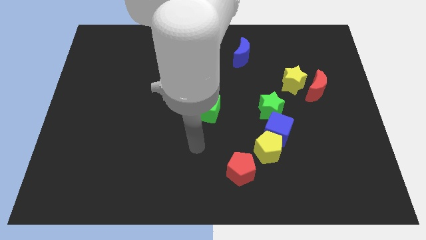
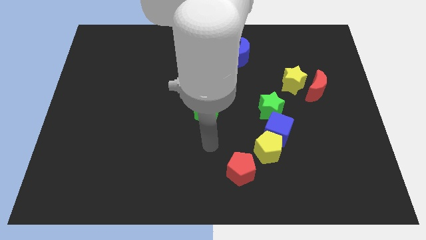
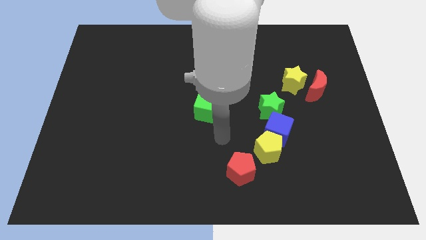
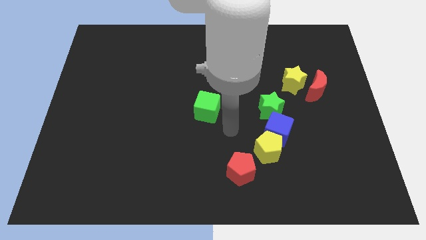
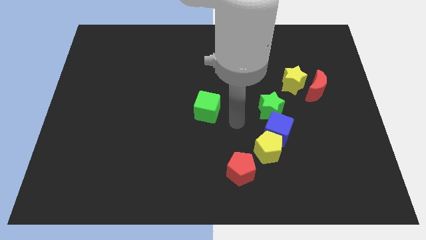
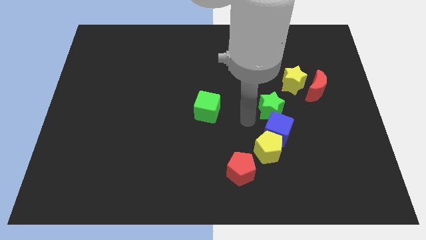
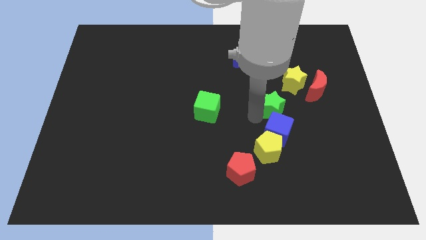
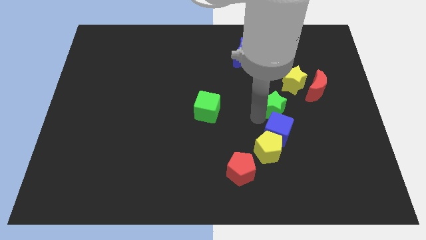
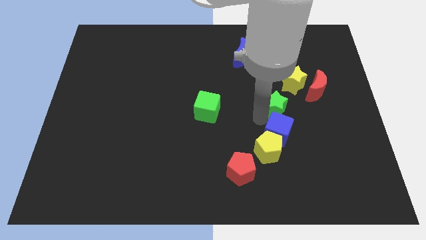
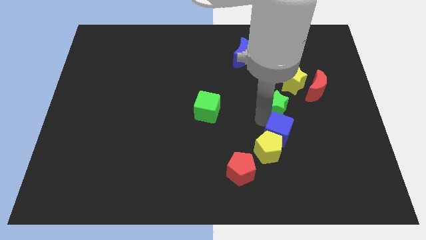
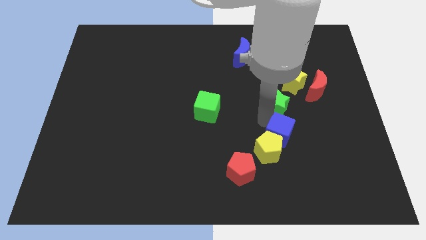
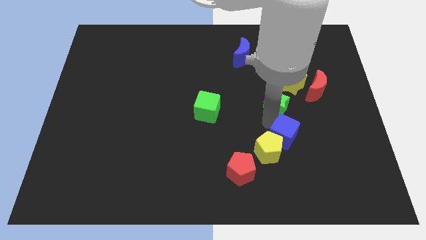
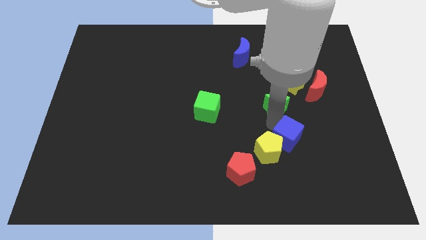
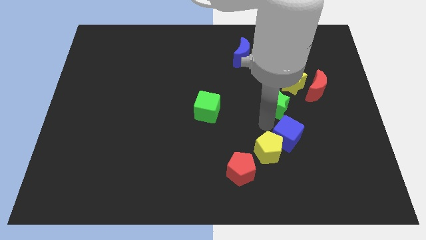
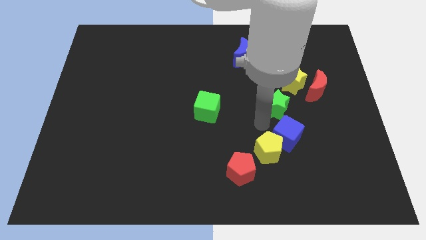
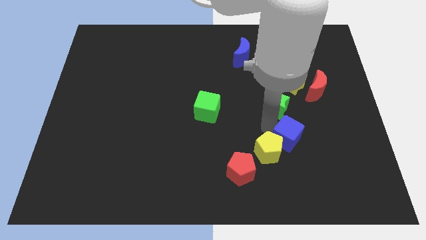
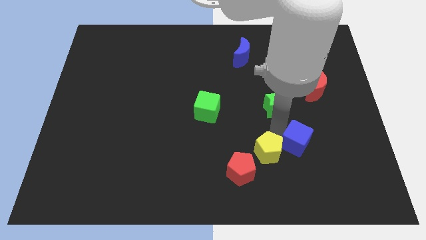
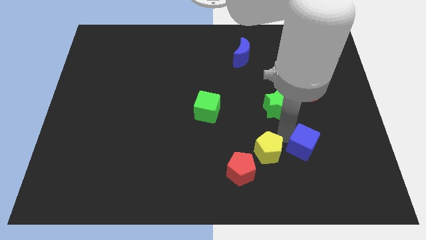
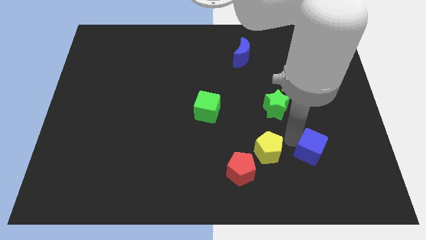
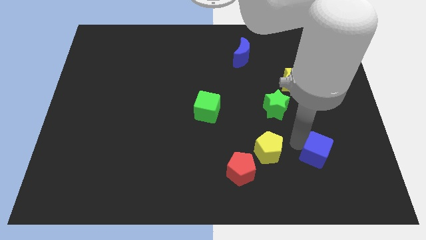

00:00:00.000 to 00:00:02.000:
move the blue cube away from the yellow pentagon and green star

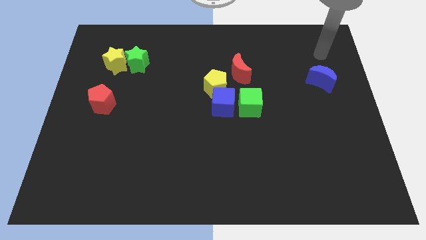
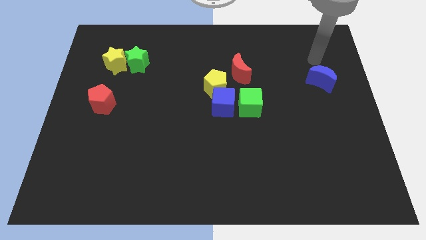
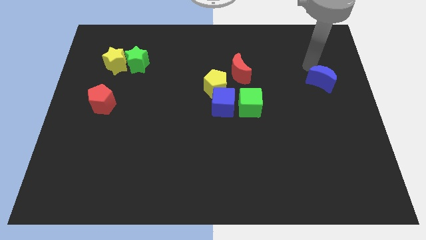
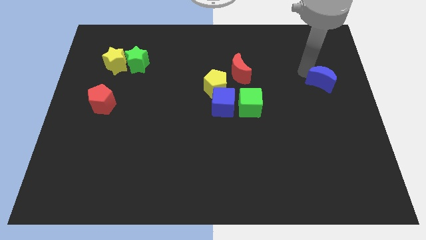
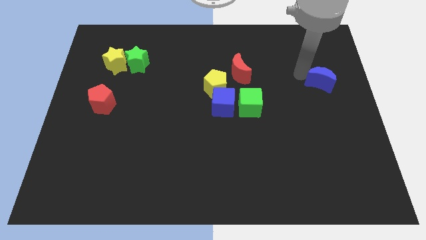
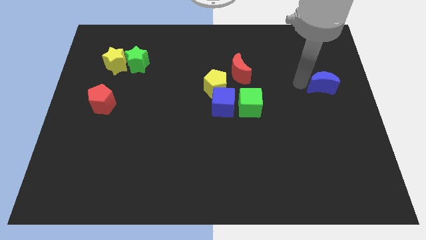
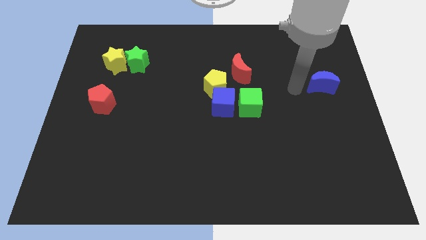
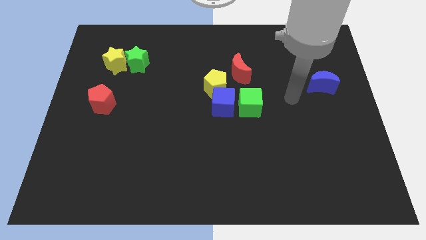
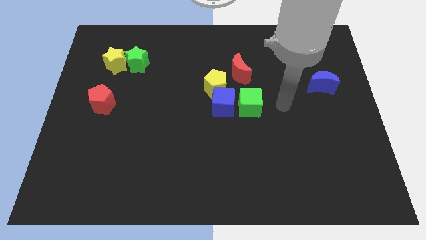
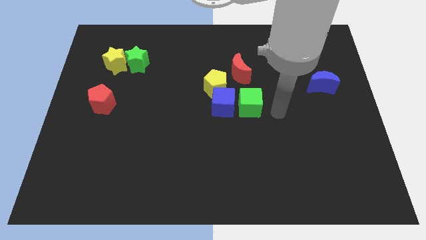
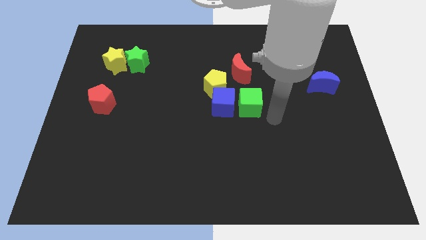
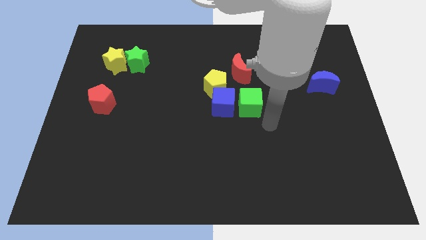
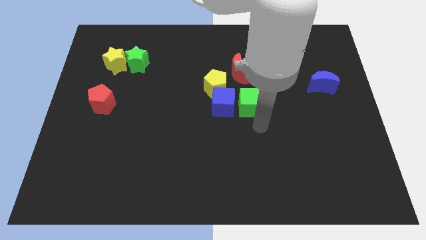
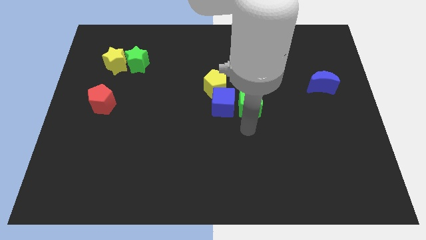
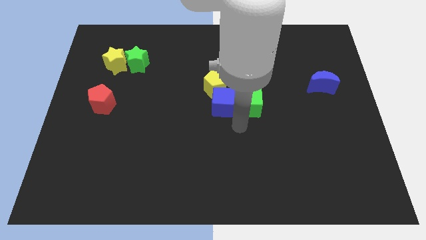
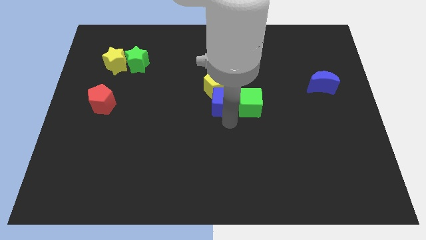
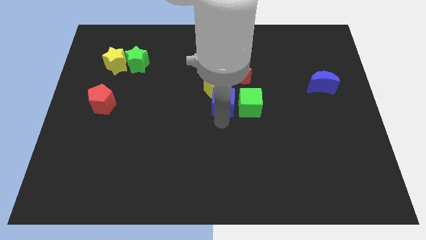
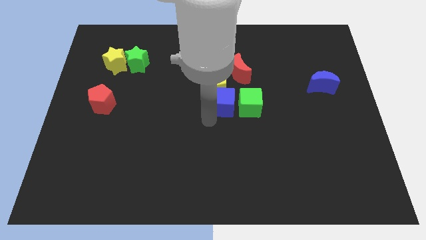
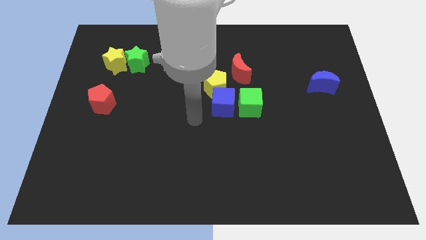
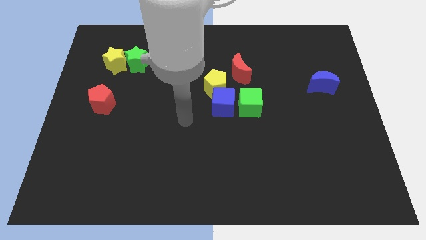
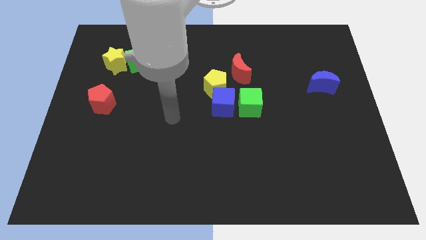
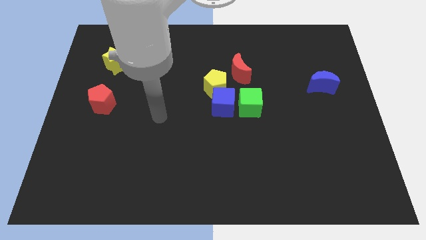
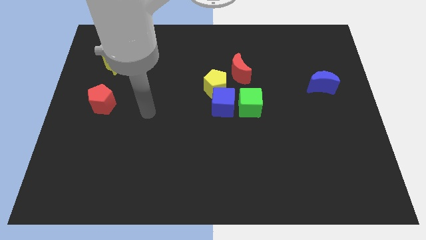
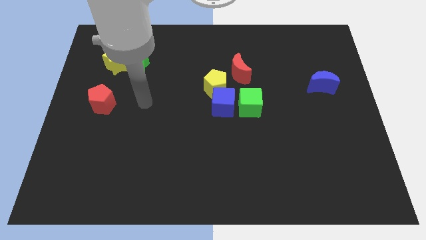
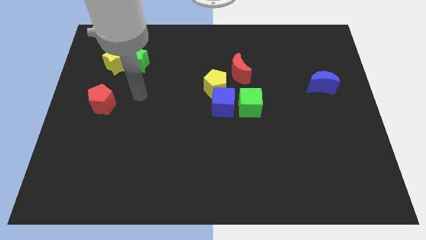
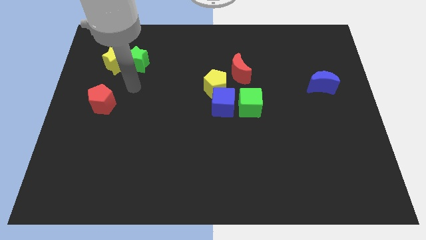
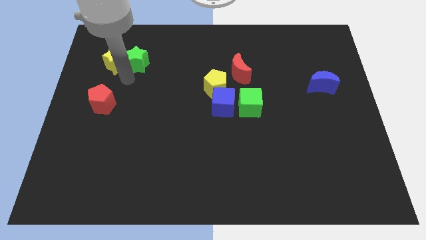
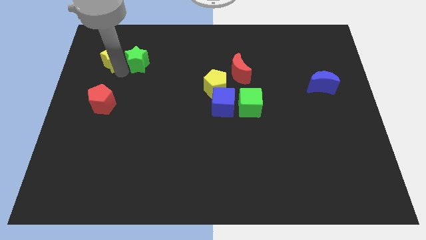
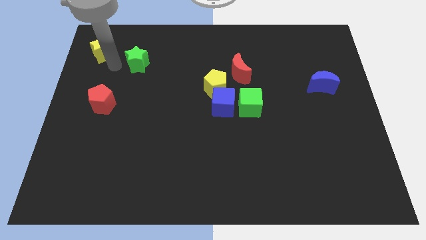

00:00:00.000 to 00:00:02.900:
move the green star away from the yellow star

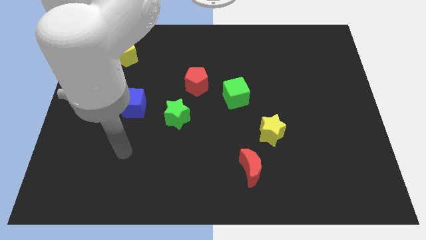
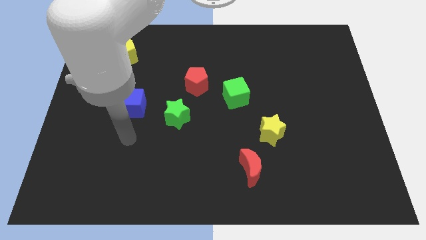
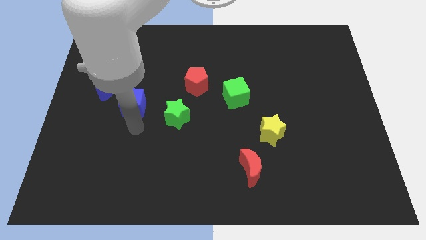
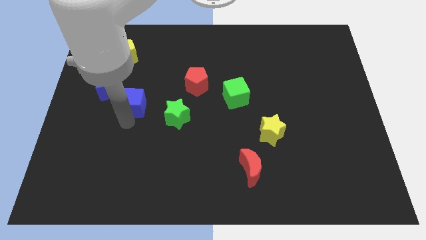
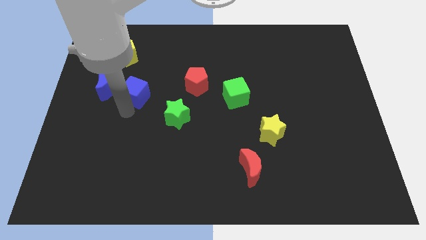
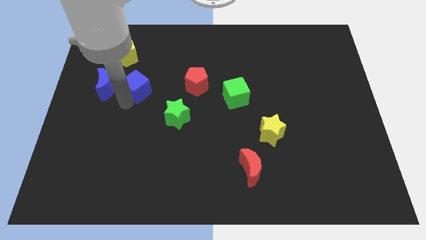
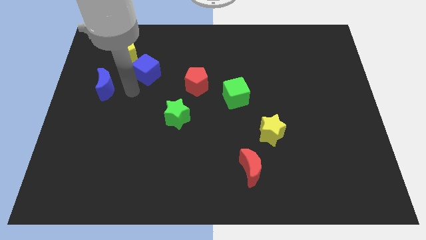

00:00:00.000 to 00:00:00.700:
pull the blue moon apart from the blue cube

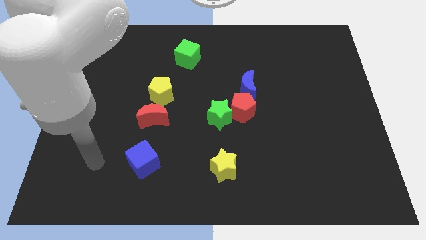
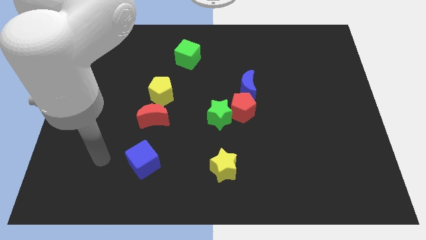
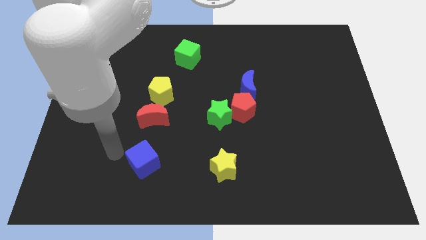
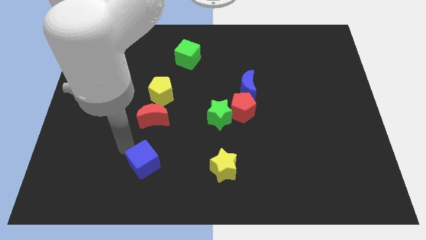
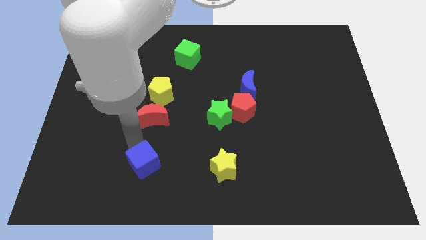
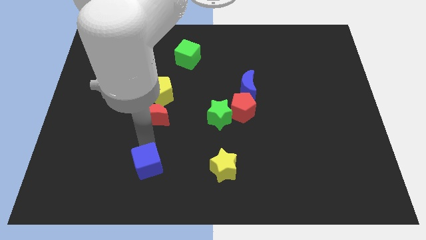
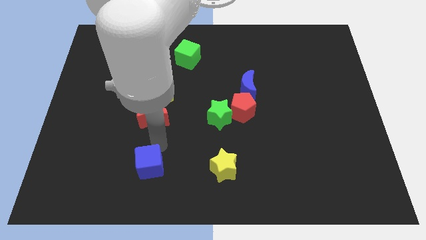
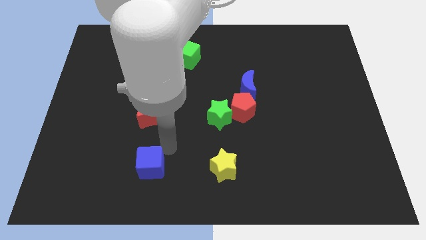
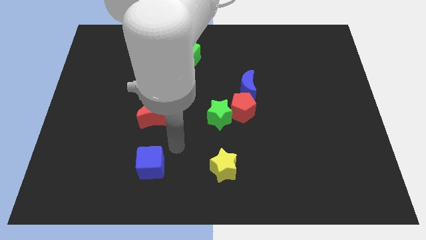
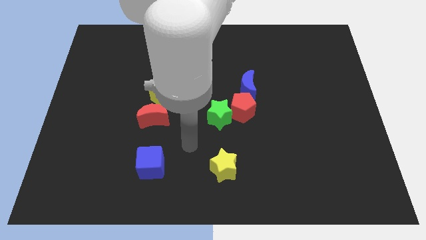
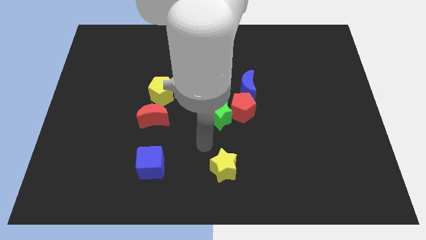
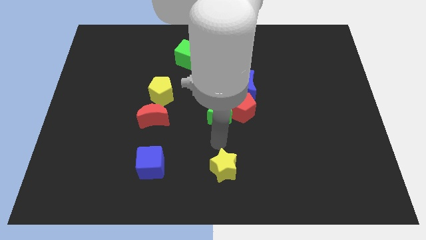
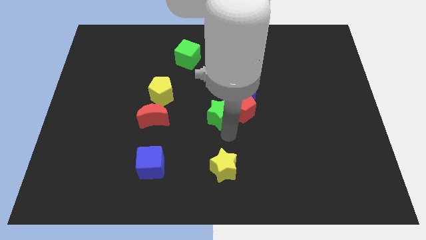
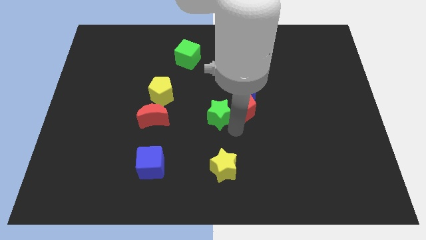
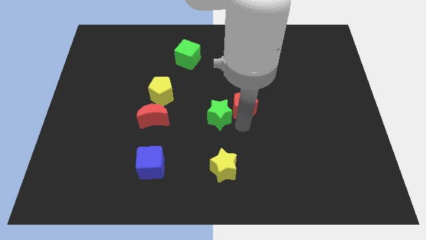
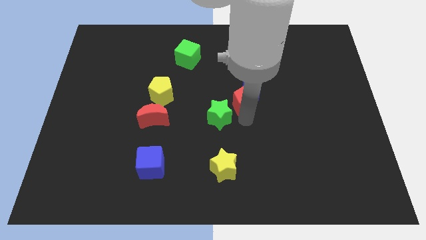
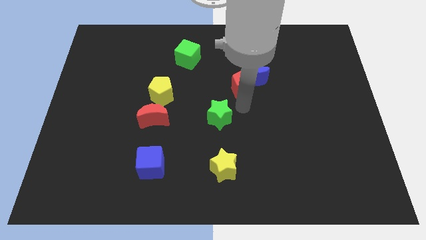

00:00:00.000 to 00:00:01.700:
separate the green star from the red pentagon

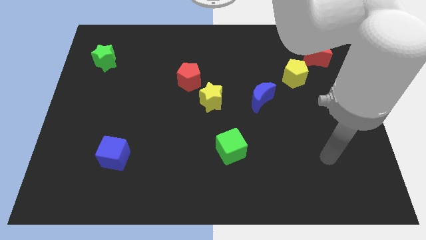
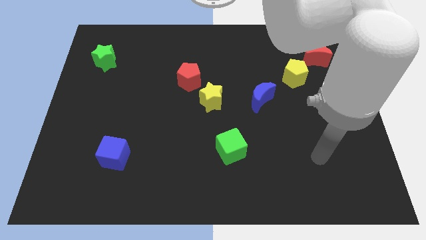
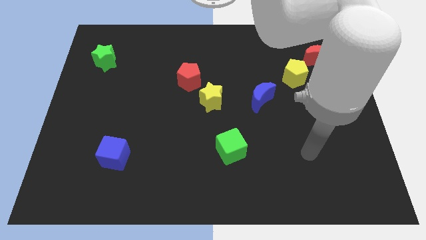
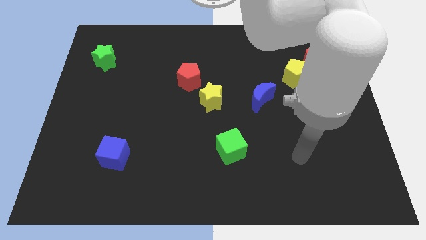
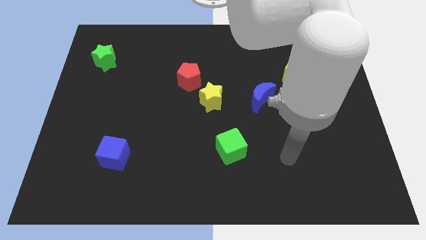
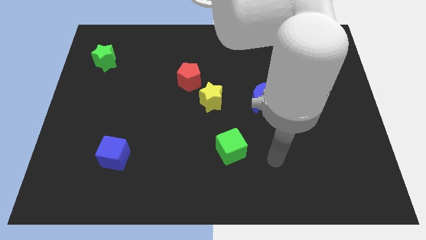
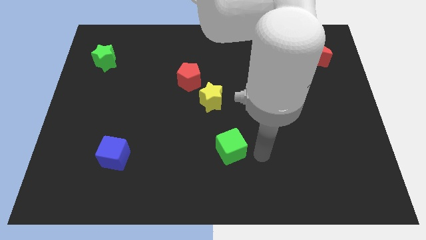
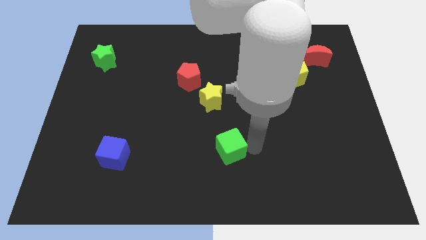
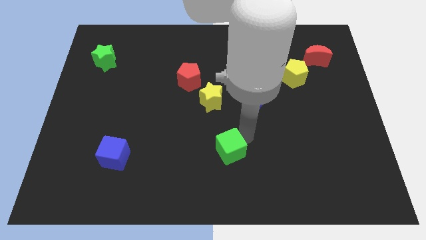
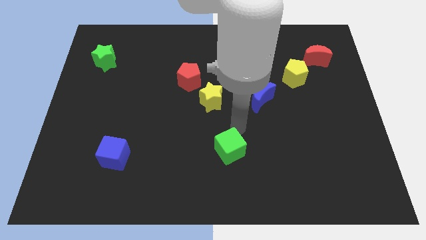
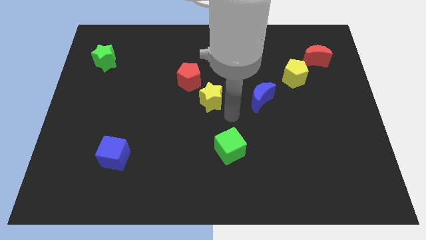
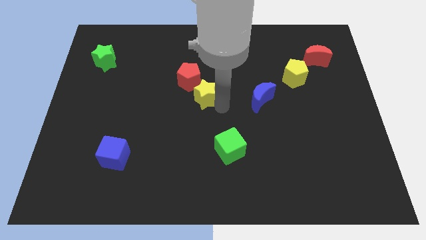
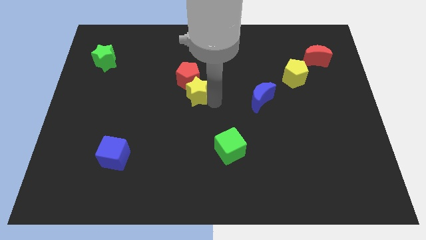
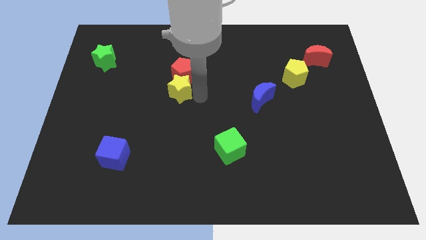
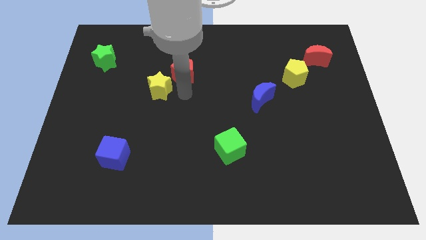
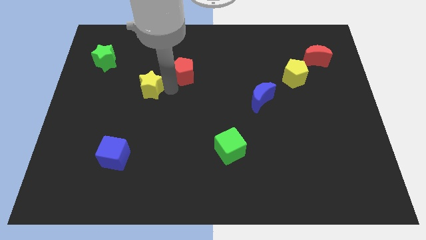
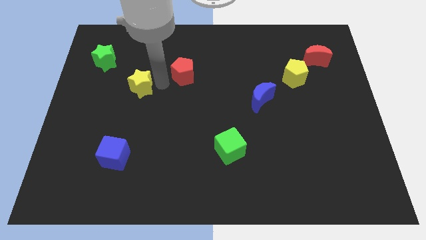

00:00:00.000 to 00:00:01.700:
move the red pentagon away from the yellow star

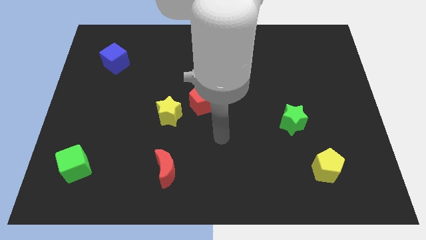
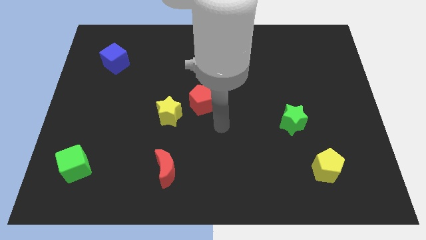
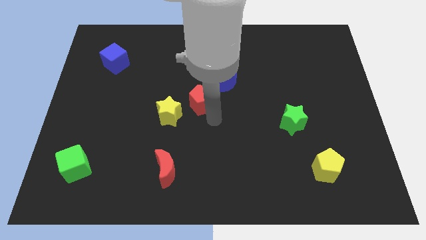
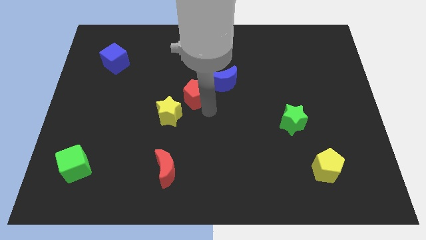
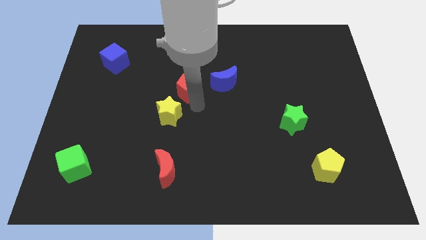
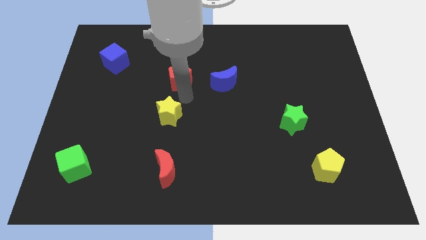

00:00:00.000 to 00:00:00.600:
move the yellow star away from the red pentagon
